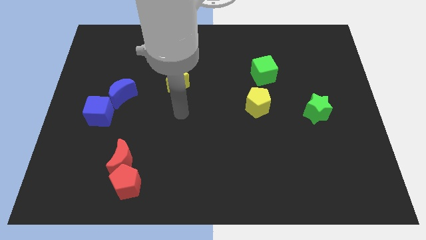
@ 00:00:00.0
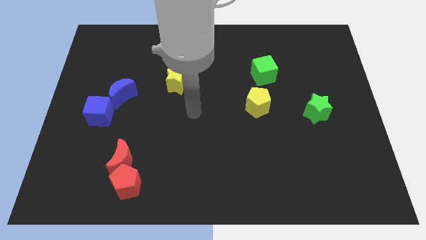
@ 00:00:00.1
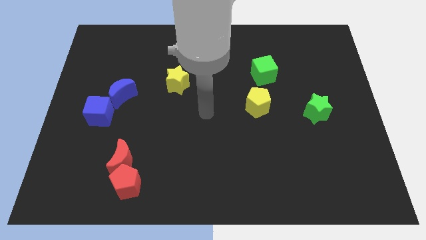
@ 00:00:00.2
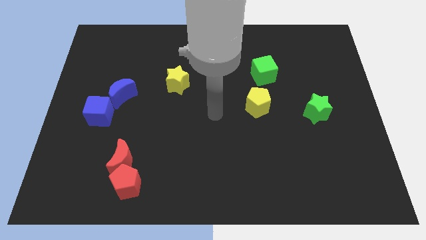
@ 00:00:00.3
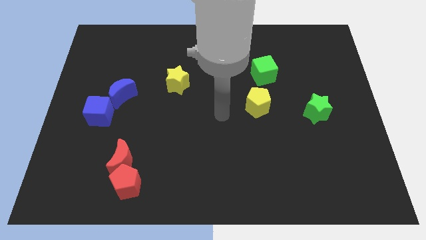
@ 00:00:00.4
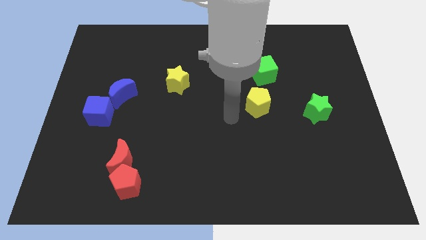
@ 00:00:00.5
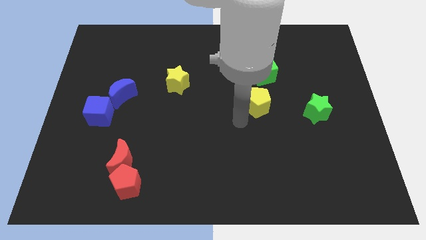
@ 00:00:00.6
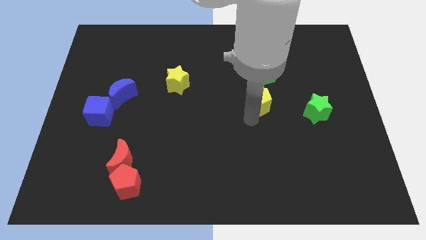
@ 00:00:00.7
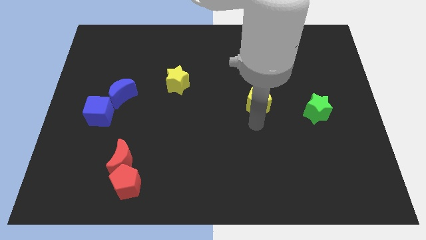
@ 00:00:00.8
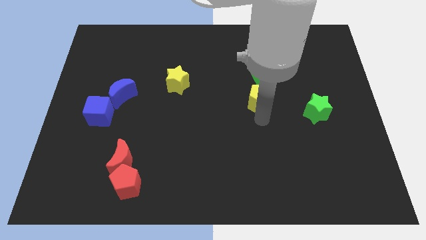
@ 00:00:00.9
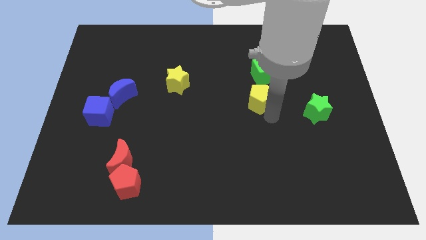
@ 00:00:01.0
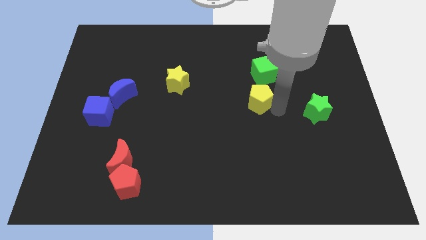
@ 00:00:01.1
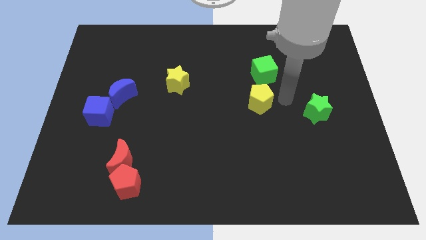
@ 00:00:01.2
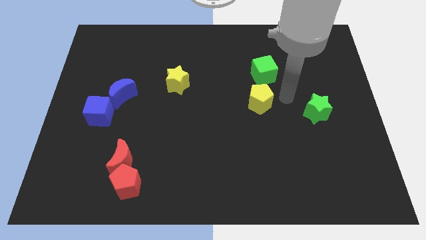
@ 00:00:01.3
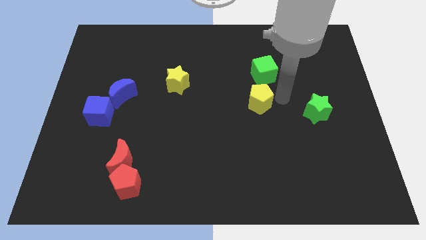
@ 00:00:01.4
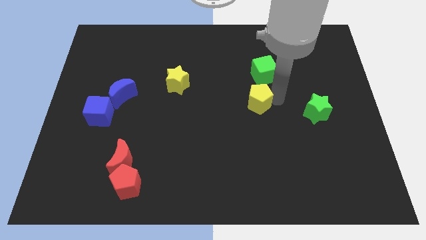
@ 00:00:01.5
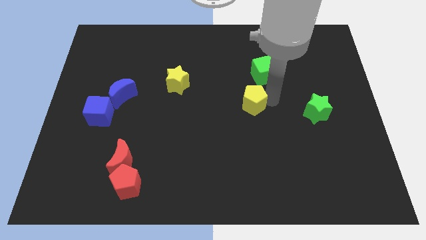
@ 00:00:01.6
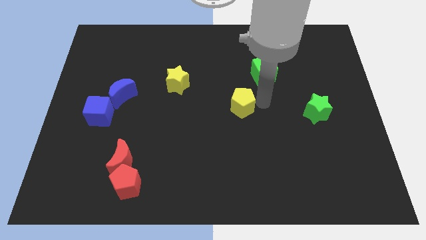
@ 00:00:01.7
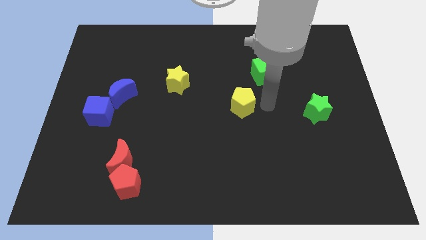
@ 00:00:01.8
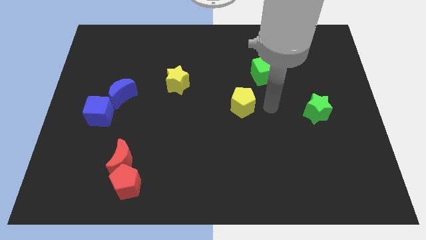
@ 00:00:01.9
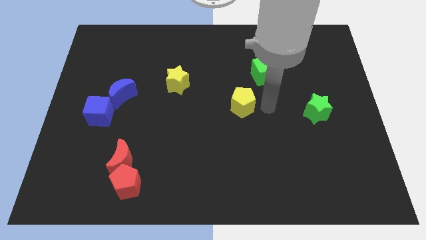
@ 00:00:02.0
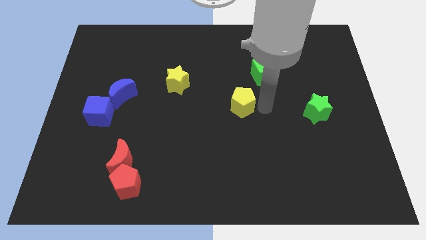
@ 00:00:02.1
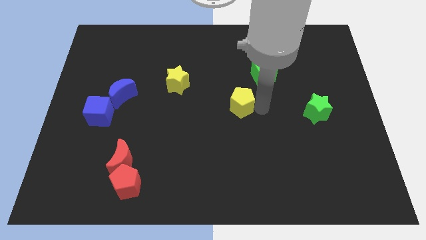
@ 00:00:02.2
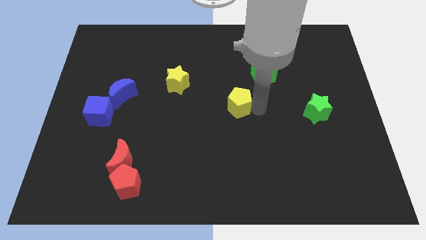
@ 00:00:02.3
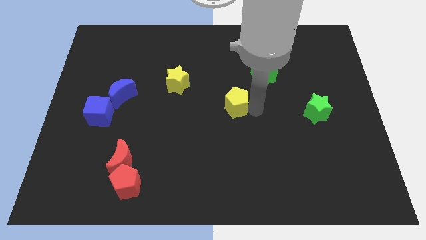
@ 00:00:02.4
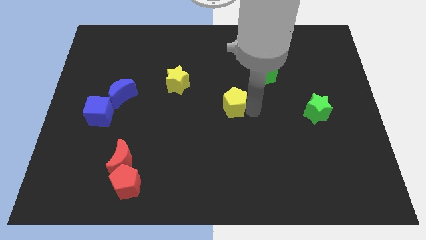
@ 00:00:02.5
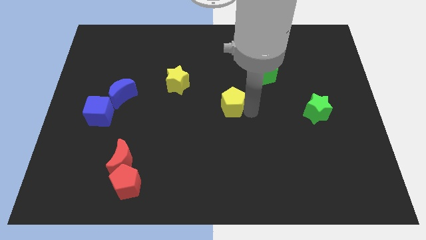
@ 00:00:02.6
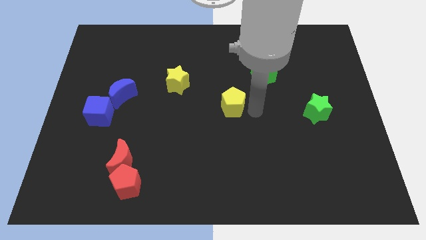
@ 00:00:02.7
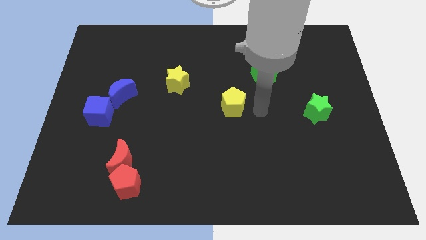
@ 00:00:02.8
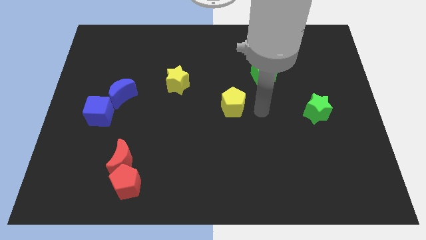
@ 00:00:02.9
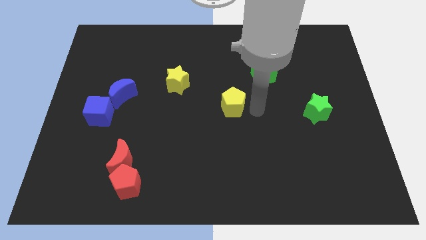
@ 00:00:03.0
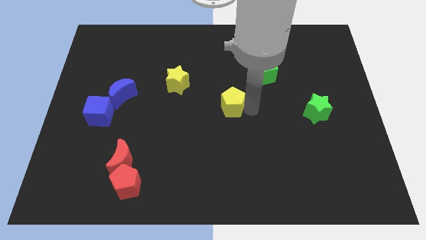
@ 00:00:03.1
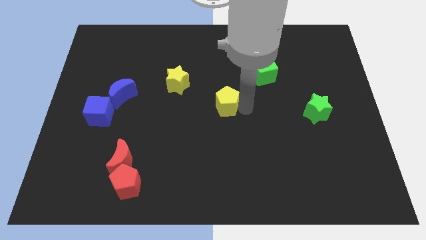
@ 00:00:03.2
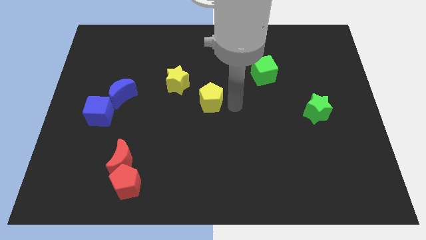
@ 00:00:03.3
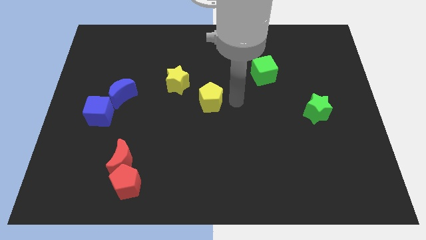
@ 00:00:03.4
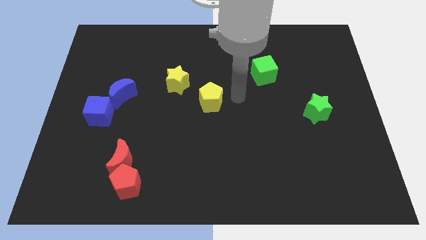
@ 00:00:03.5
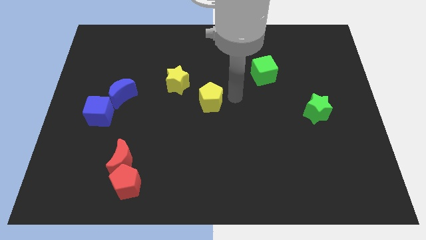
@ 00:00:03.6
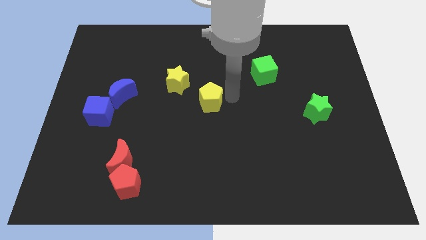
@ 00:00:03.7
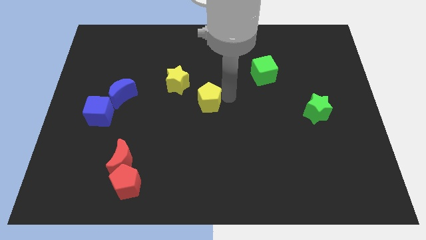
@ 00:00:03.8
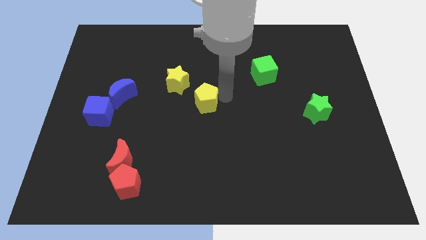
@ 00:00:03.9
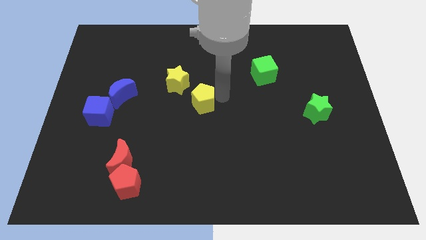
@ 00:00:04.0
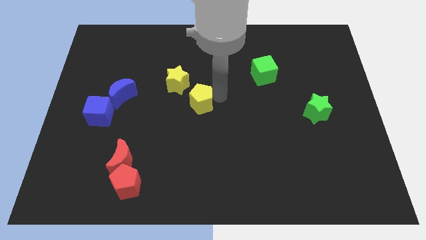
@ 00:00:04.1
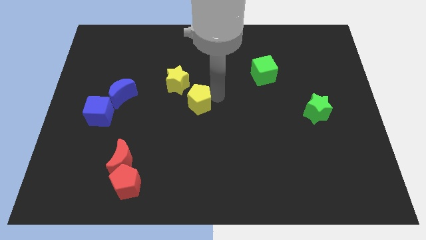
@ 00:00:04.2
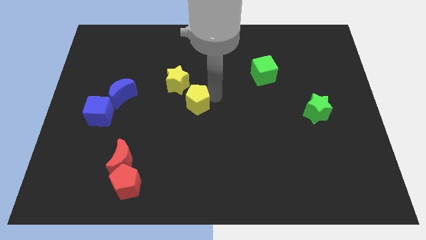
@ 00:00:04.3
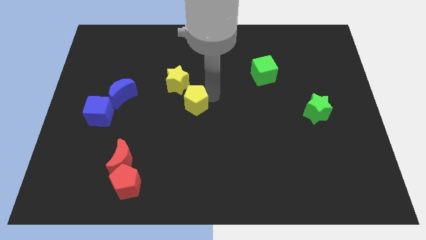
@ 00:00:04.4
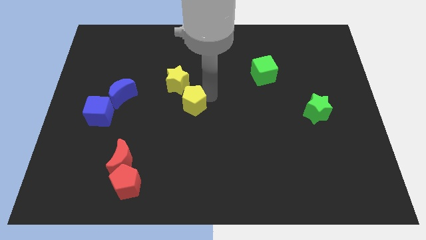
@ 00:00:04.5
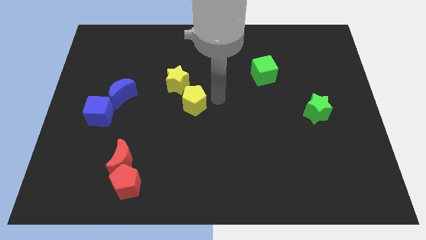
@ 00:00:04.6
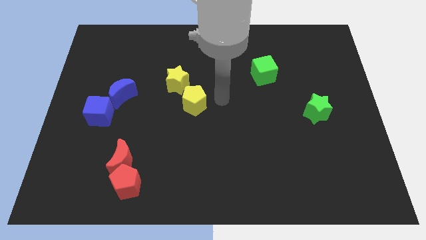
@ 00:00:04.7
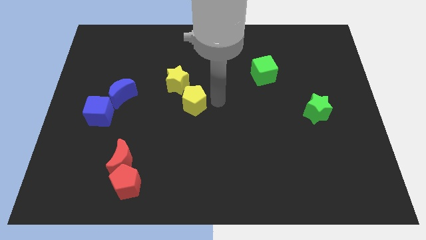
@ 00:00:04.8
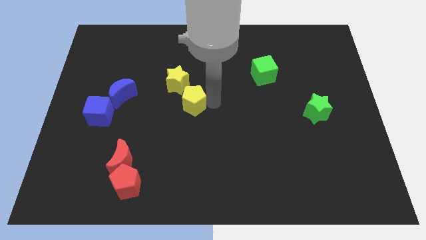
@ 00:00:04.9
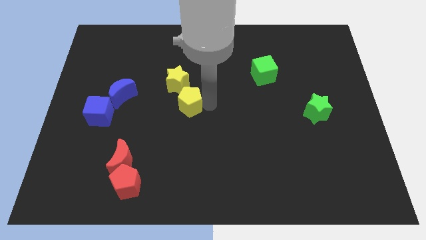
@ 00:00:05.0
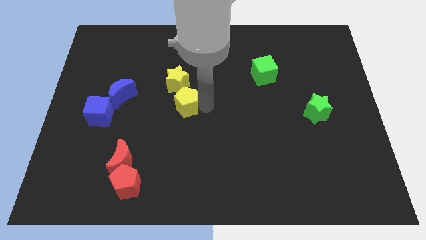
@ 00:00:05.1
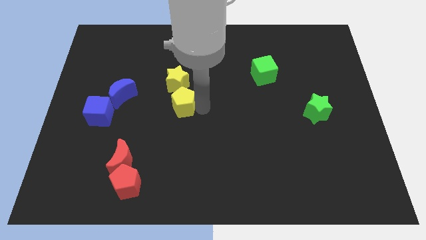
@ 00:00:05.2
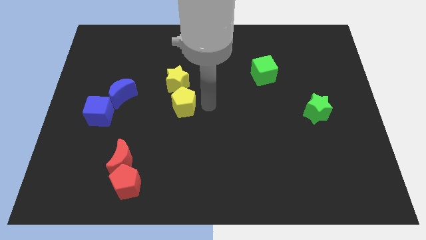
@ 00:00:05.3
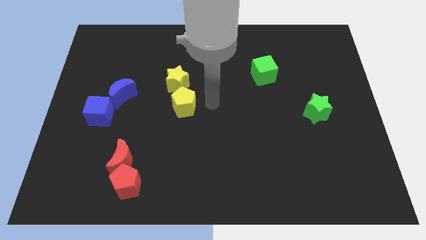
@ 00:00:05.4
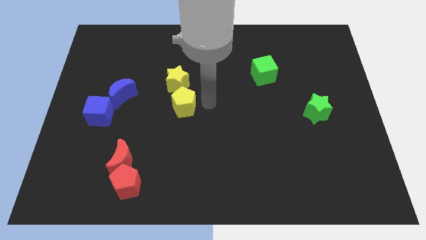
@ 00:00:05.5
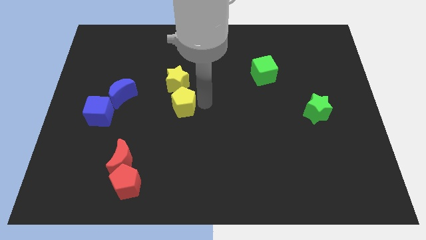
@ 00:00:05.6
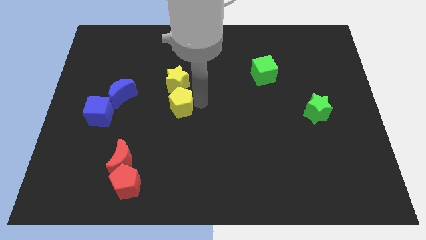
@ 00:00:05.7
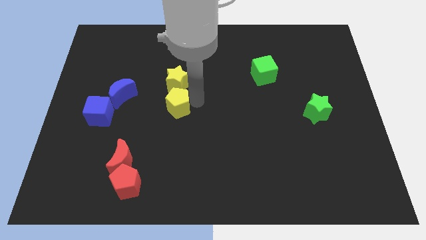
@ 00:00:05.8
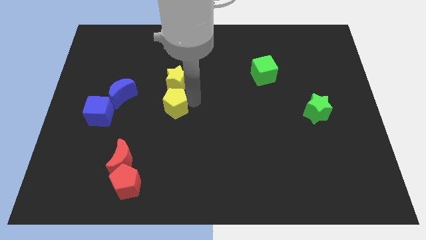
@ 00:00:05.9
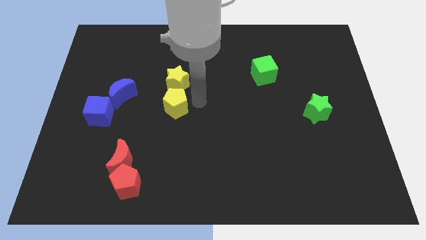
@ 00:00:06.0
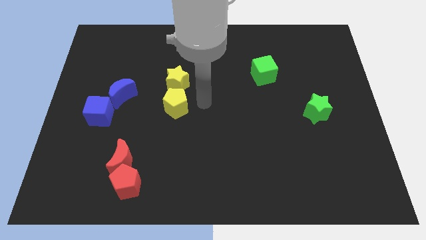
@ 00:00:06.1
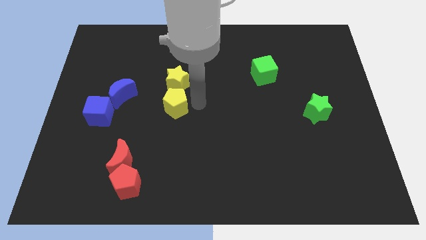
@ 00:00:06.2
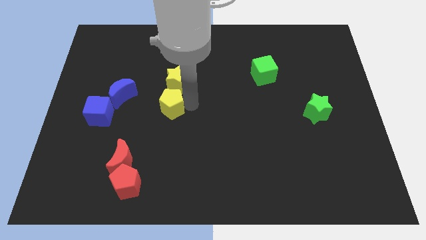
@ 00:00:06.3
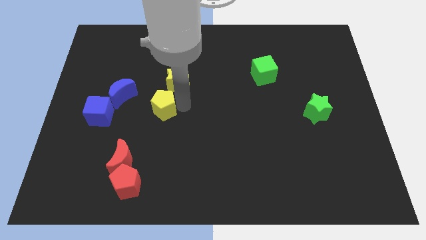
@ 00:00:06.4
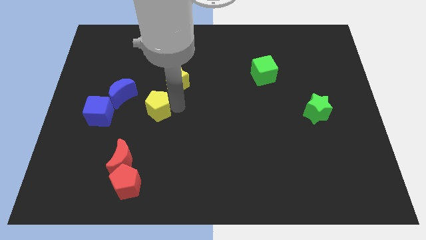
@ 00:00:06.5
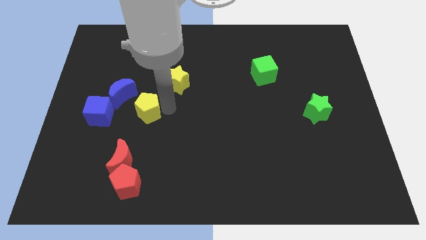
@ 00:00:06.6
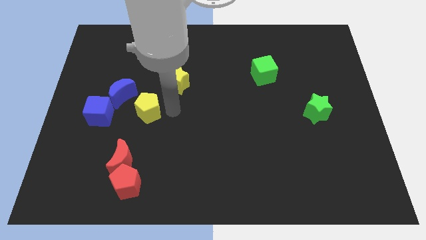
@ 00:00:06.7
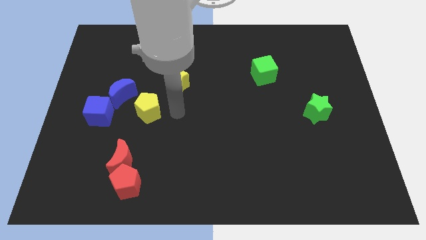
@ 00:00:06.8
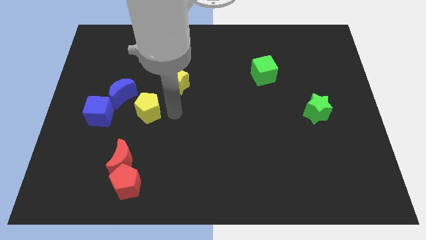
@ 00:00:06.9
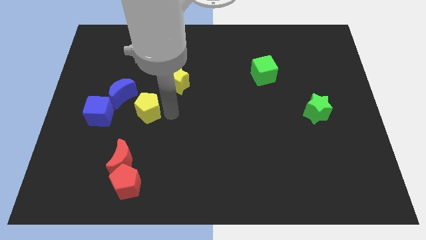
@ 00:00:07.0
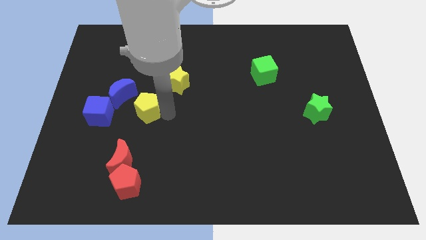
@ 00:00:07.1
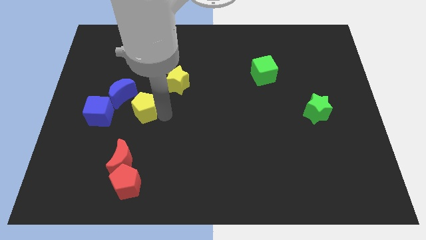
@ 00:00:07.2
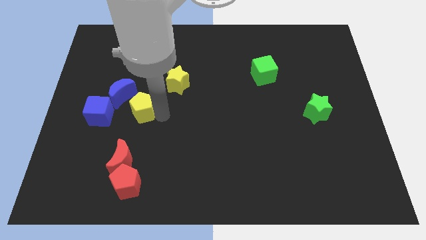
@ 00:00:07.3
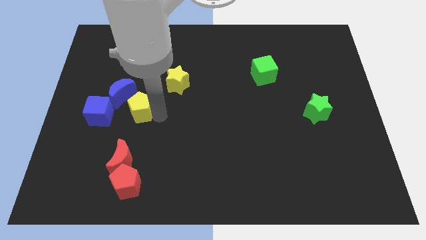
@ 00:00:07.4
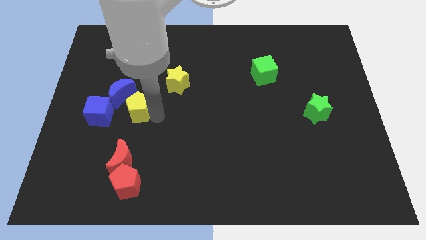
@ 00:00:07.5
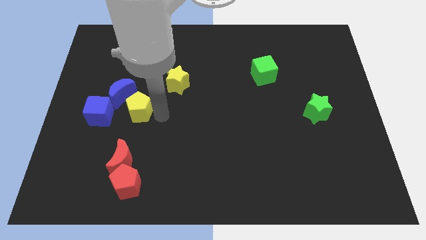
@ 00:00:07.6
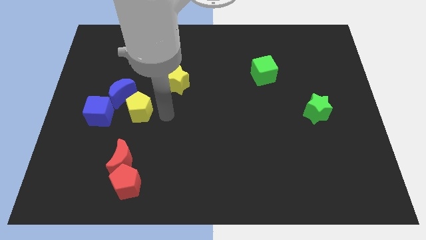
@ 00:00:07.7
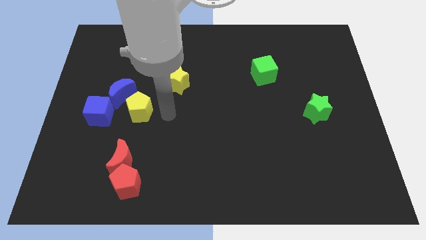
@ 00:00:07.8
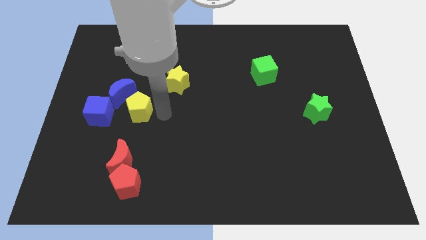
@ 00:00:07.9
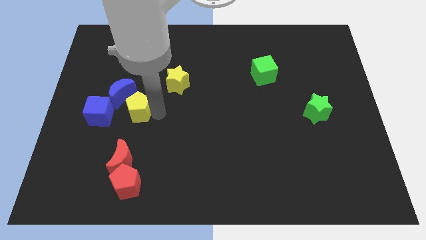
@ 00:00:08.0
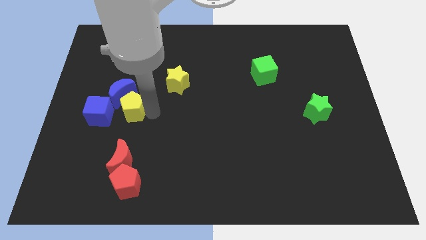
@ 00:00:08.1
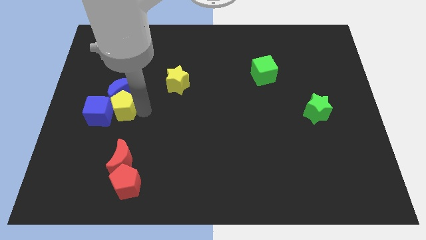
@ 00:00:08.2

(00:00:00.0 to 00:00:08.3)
put the yellow pentagon close to the blue cube
